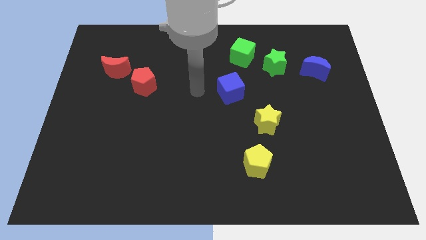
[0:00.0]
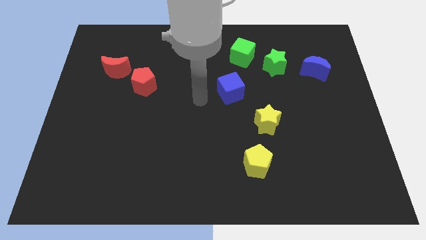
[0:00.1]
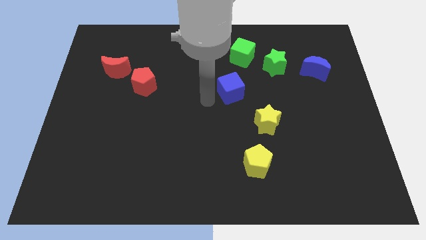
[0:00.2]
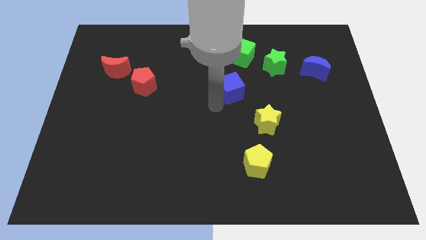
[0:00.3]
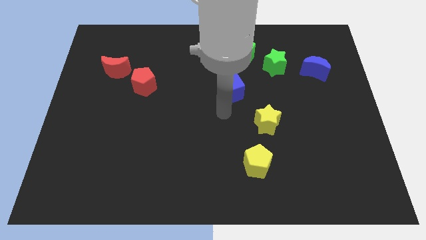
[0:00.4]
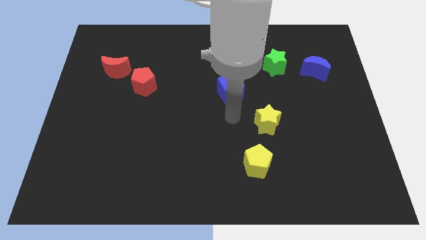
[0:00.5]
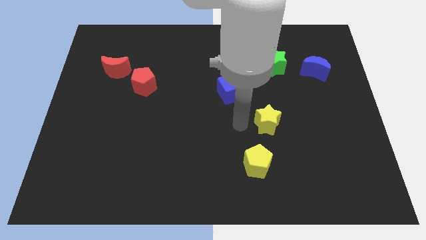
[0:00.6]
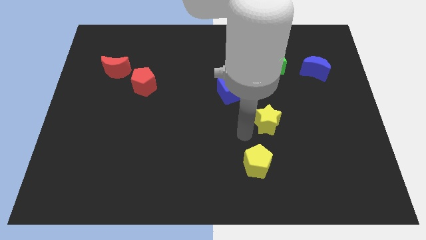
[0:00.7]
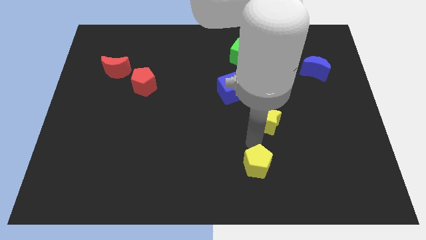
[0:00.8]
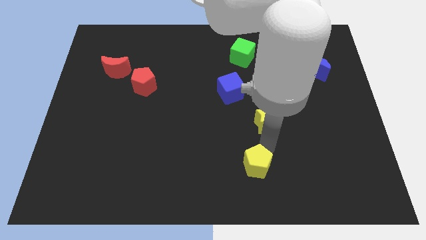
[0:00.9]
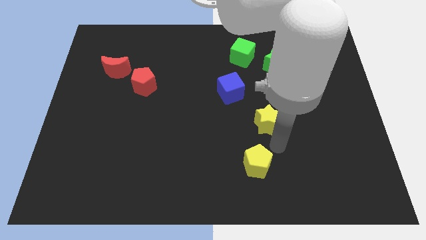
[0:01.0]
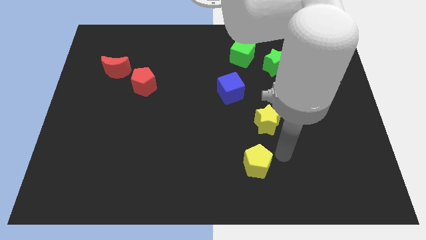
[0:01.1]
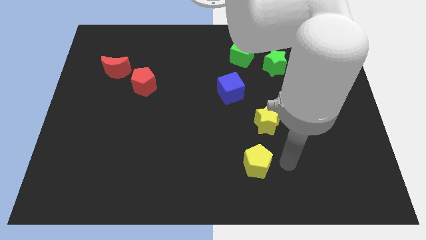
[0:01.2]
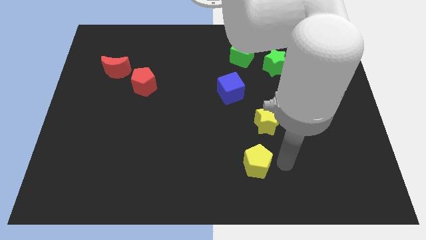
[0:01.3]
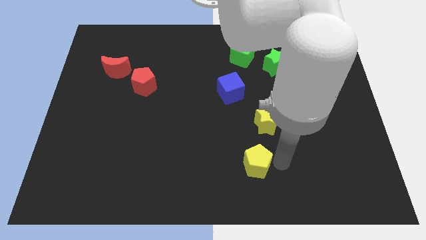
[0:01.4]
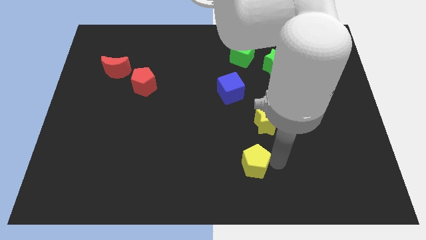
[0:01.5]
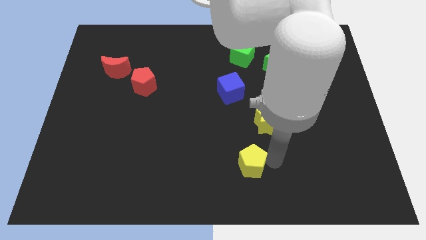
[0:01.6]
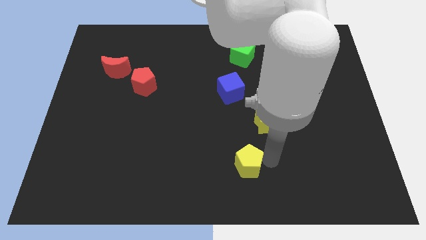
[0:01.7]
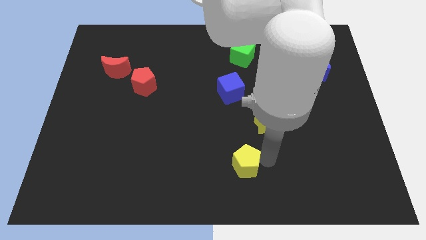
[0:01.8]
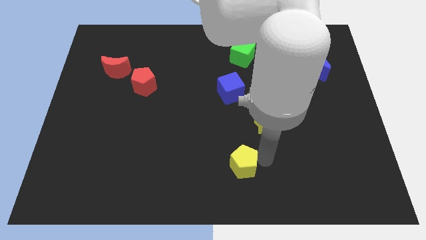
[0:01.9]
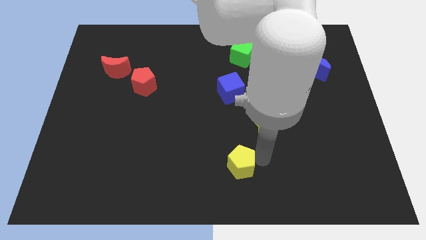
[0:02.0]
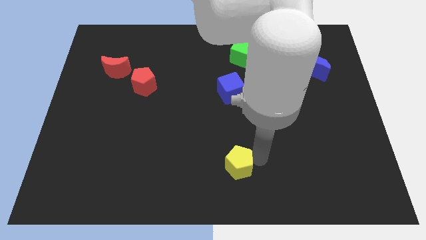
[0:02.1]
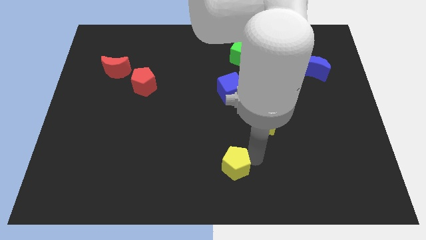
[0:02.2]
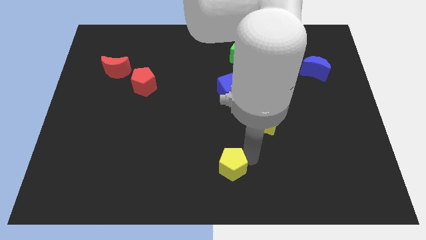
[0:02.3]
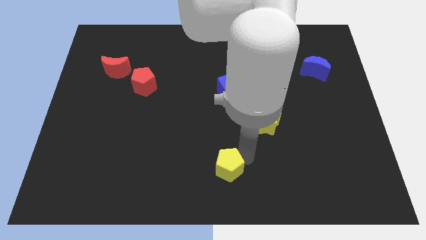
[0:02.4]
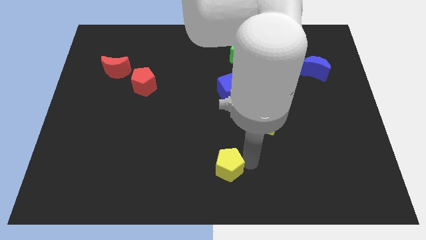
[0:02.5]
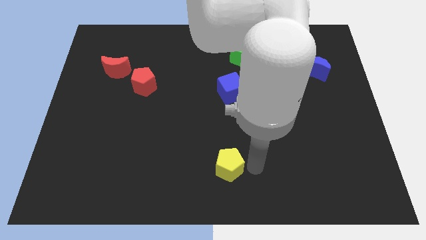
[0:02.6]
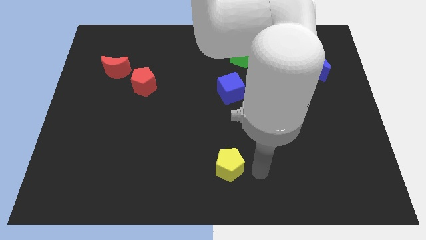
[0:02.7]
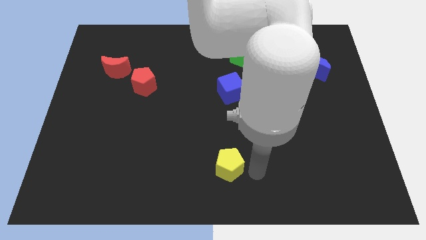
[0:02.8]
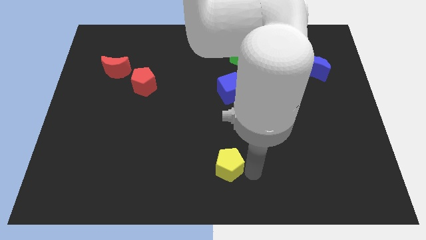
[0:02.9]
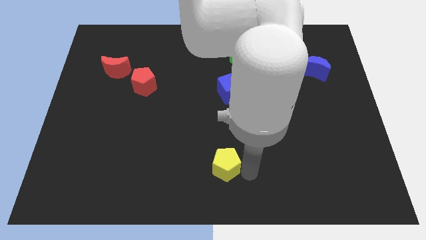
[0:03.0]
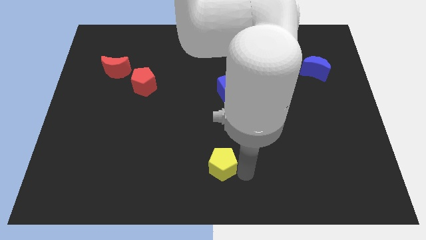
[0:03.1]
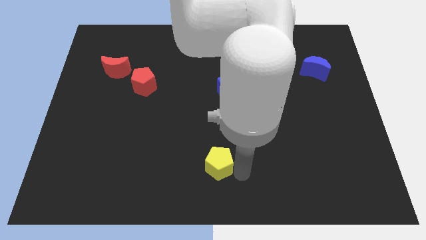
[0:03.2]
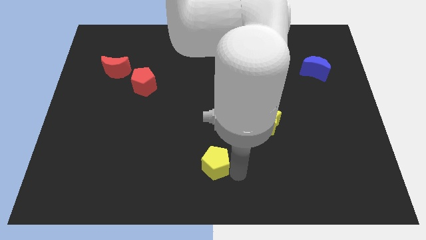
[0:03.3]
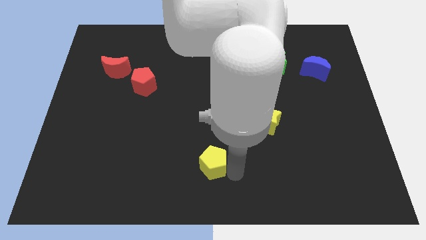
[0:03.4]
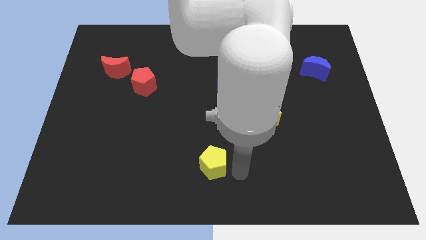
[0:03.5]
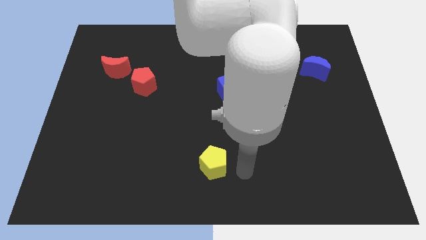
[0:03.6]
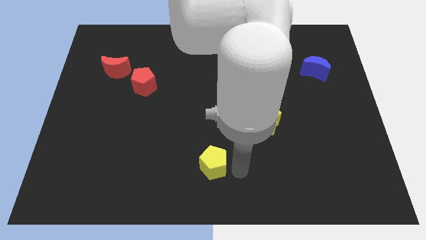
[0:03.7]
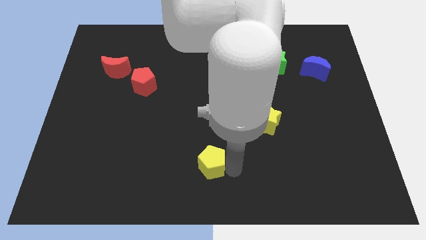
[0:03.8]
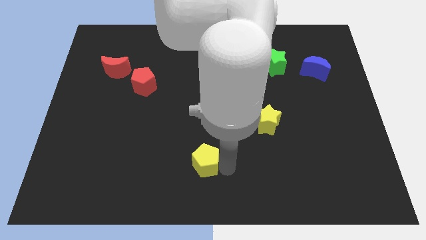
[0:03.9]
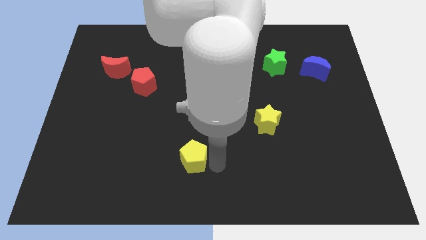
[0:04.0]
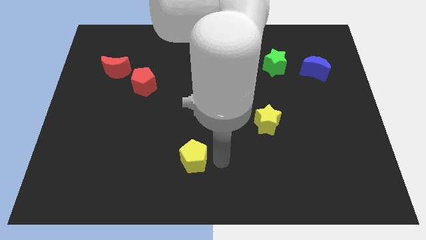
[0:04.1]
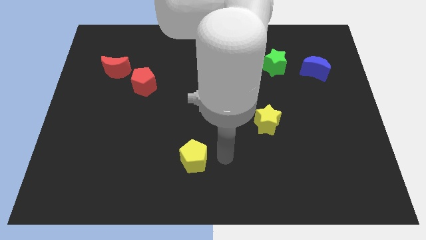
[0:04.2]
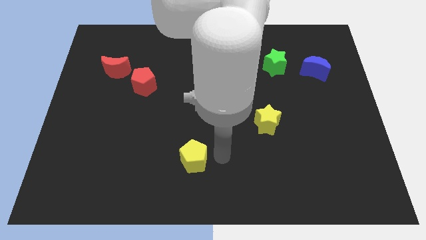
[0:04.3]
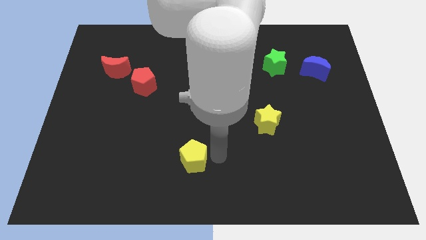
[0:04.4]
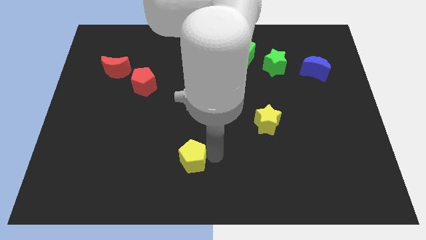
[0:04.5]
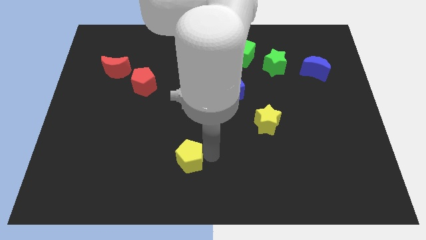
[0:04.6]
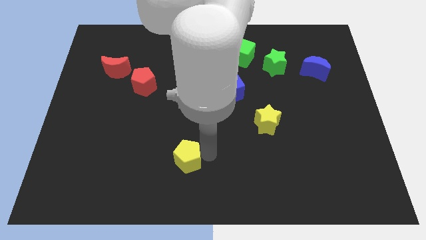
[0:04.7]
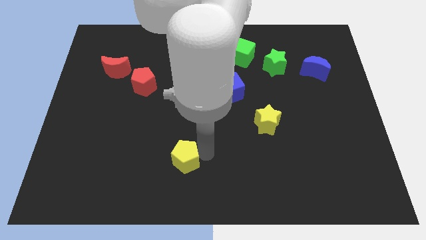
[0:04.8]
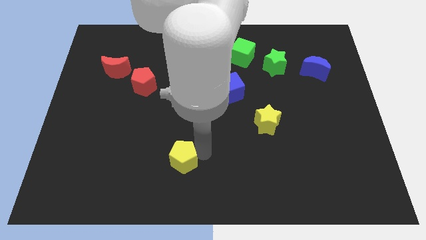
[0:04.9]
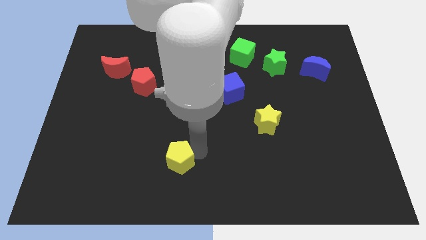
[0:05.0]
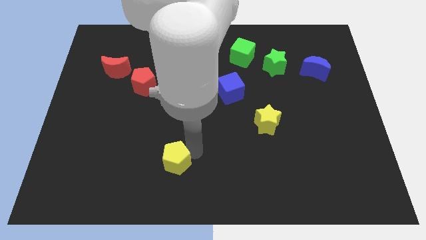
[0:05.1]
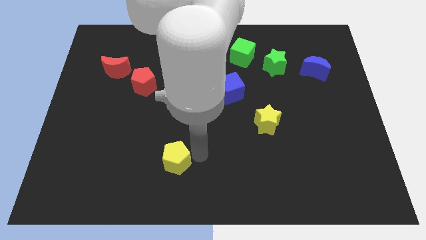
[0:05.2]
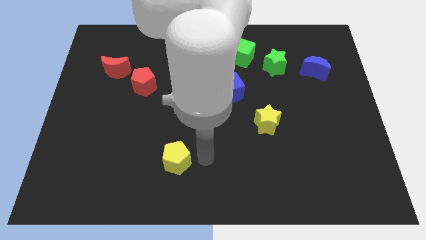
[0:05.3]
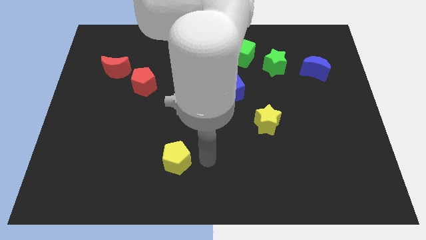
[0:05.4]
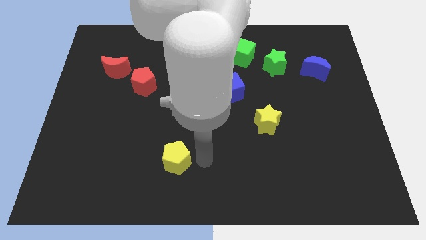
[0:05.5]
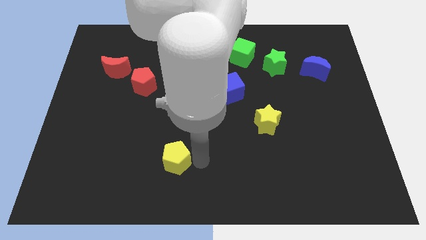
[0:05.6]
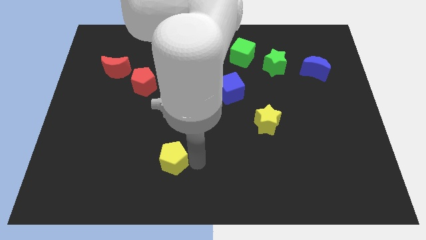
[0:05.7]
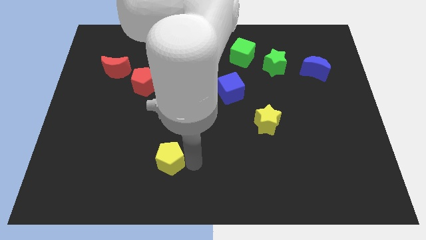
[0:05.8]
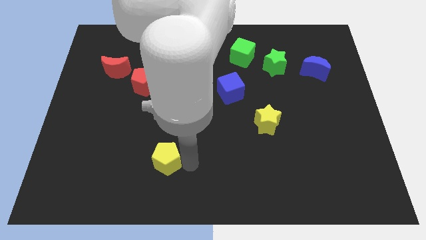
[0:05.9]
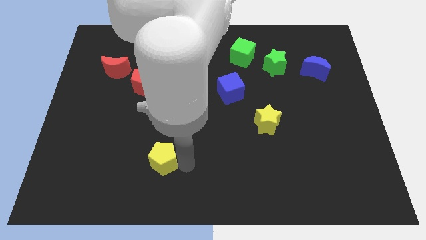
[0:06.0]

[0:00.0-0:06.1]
slide the yellow pentagon left

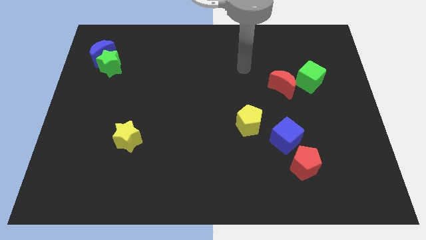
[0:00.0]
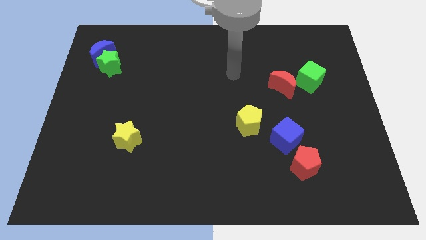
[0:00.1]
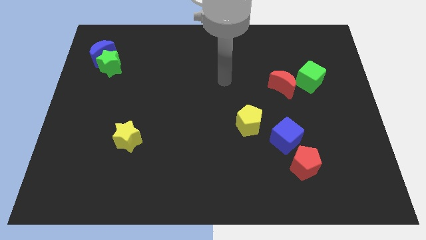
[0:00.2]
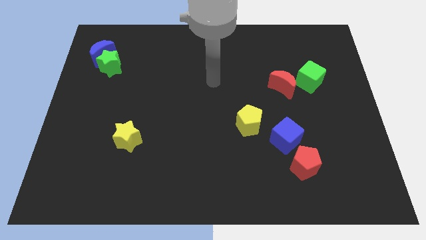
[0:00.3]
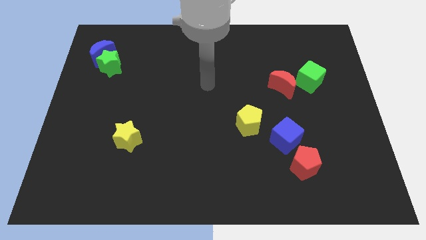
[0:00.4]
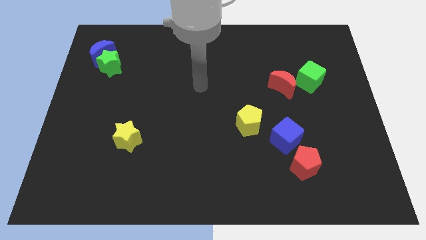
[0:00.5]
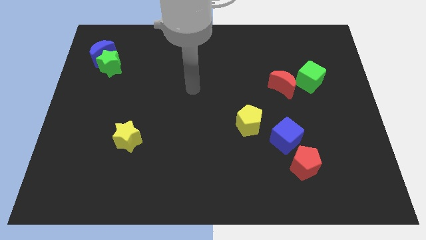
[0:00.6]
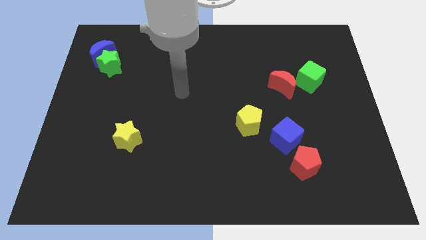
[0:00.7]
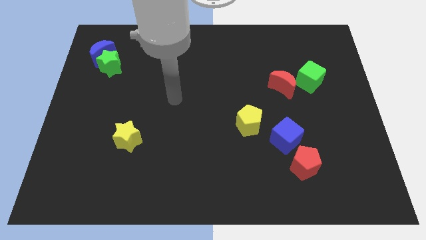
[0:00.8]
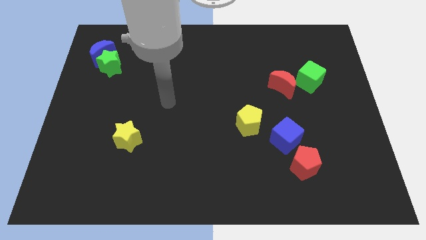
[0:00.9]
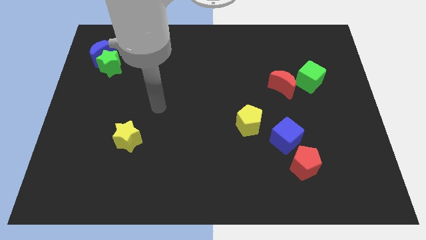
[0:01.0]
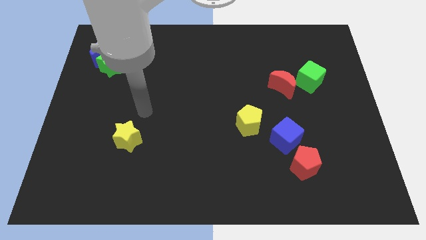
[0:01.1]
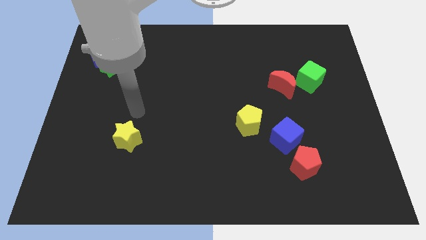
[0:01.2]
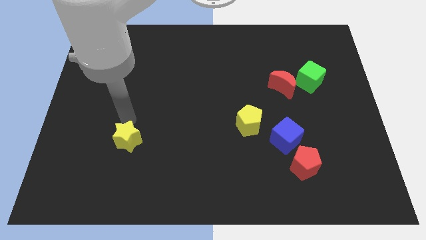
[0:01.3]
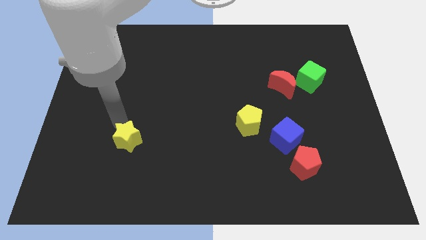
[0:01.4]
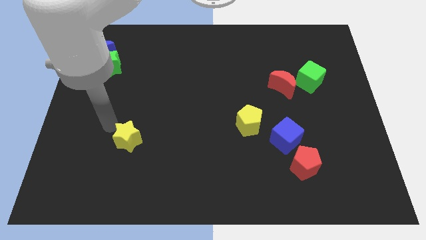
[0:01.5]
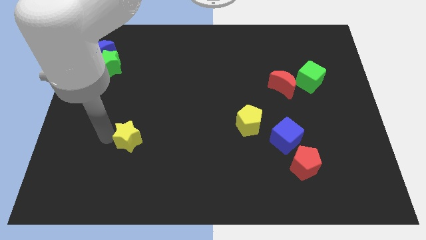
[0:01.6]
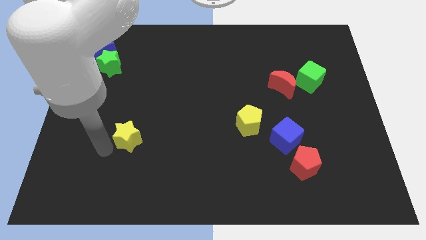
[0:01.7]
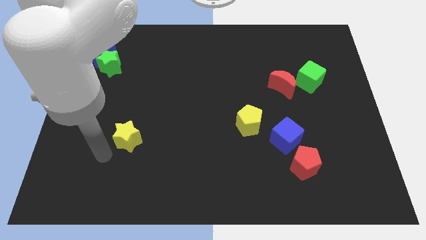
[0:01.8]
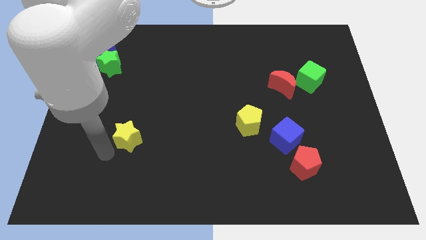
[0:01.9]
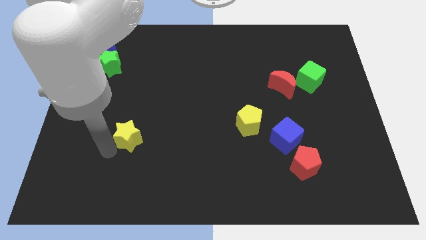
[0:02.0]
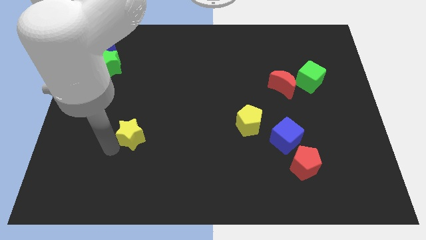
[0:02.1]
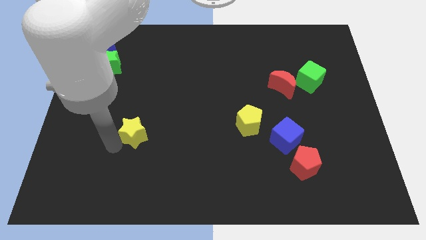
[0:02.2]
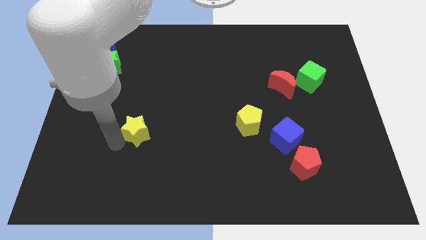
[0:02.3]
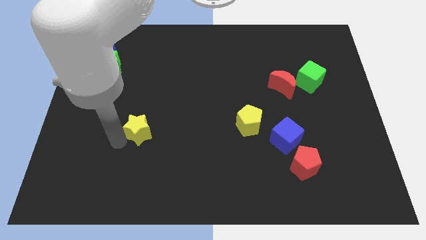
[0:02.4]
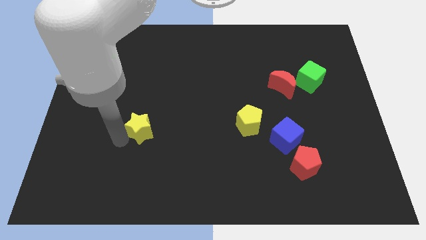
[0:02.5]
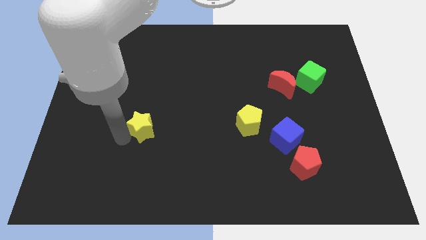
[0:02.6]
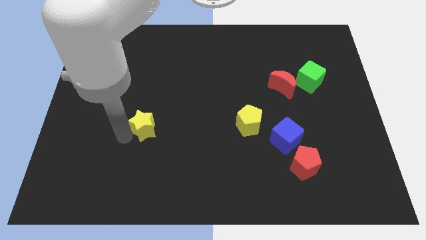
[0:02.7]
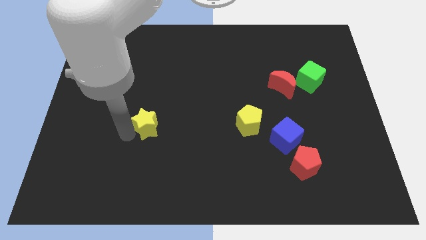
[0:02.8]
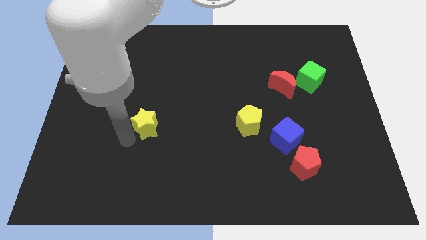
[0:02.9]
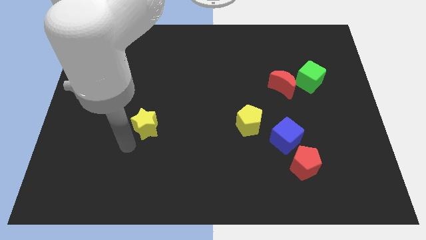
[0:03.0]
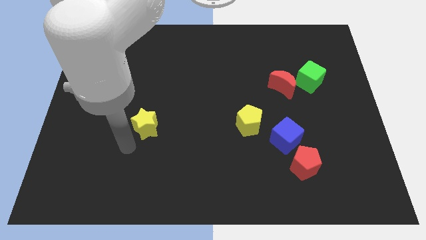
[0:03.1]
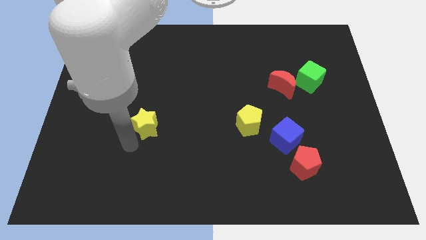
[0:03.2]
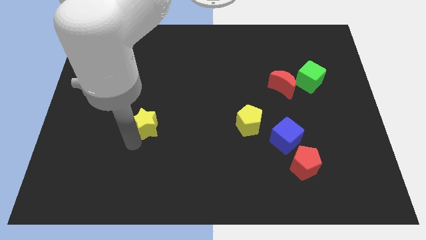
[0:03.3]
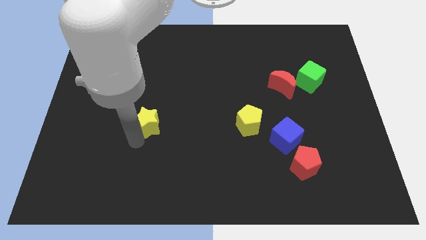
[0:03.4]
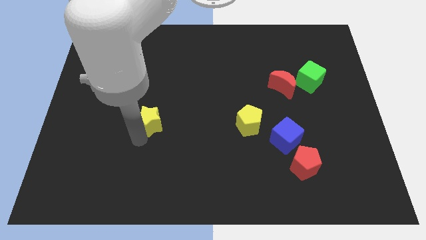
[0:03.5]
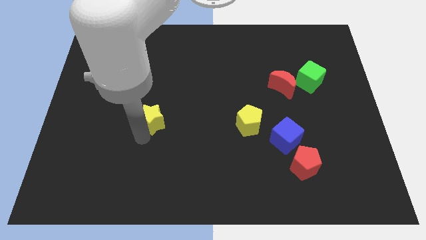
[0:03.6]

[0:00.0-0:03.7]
move the yellow star somewhat upwards and right
